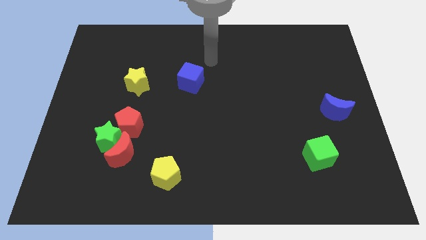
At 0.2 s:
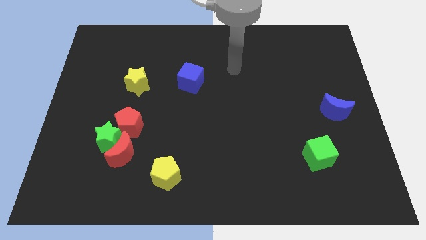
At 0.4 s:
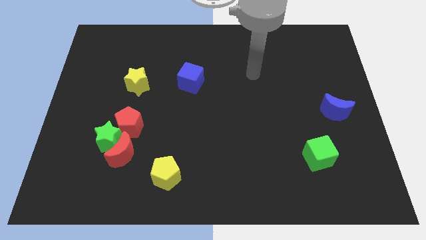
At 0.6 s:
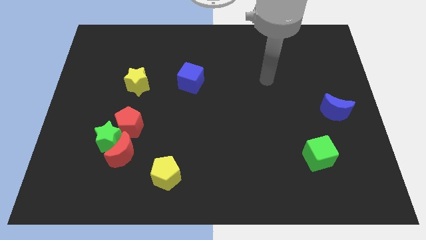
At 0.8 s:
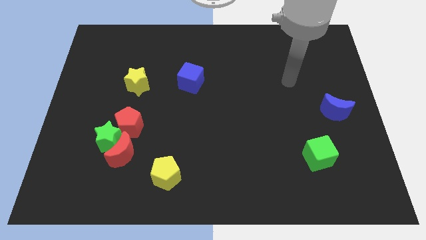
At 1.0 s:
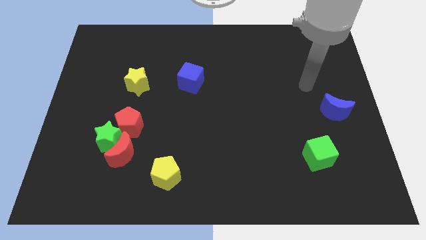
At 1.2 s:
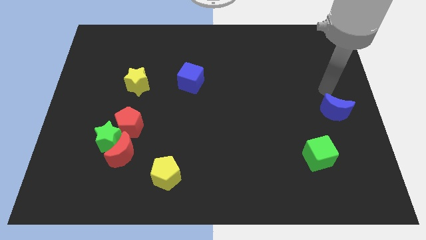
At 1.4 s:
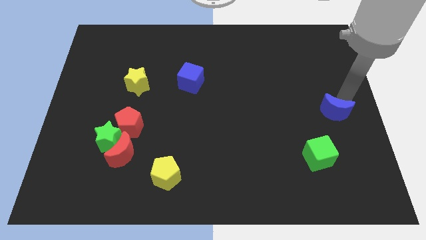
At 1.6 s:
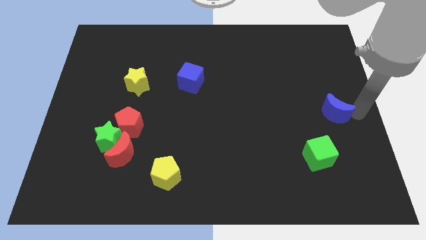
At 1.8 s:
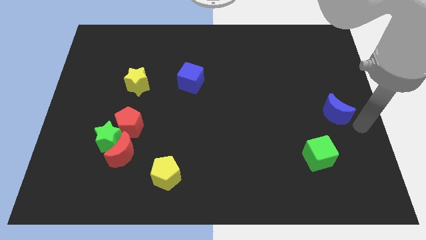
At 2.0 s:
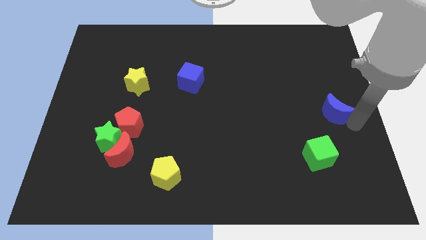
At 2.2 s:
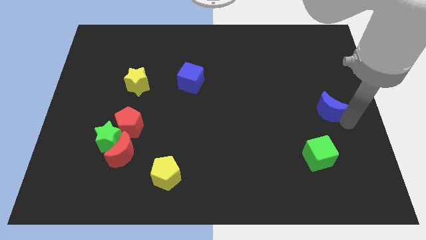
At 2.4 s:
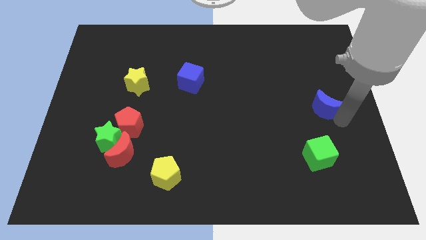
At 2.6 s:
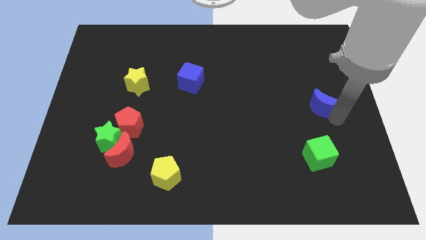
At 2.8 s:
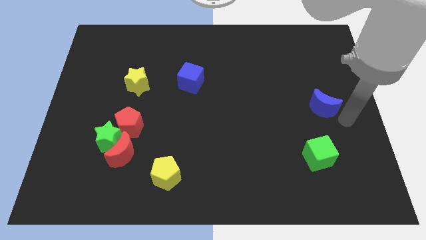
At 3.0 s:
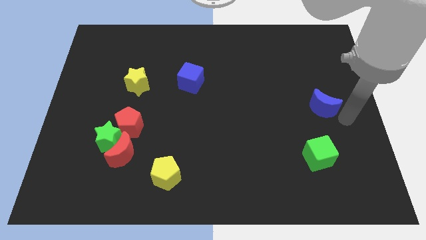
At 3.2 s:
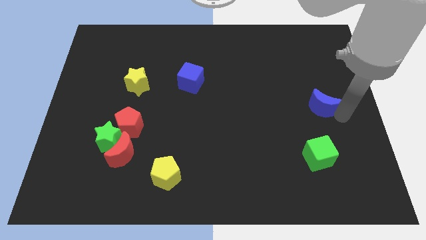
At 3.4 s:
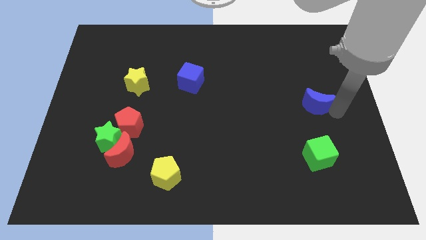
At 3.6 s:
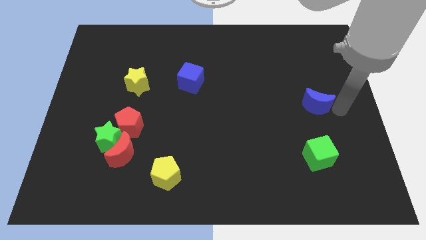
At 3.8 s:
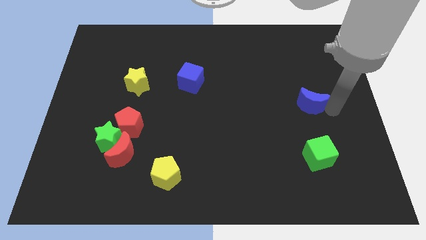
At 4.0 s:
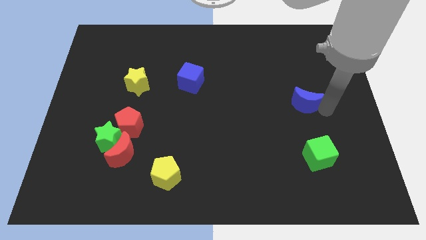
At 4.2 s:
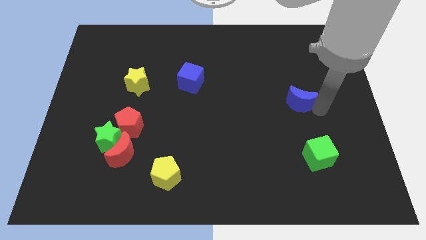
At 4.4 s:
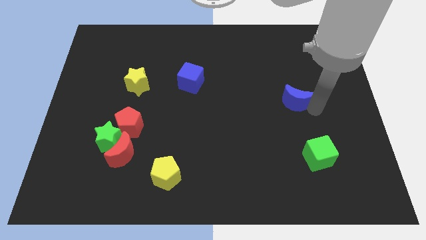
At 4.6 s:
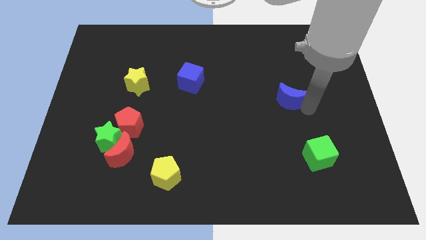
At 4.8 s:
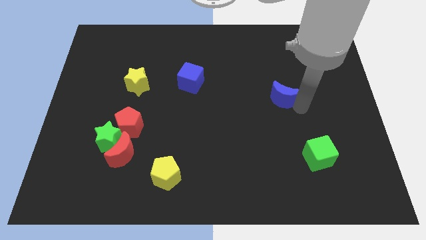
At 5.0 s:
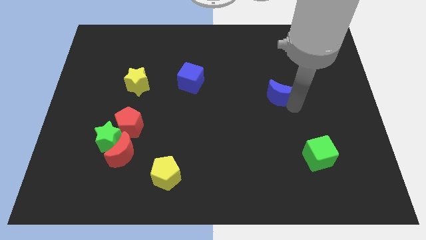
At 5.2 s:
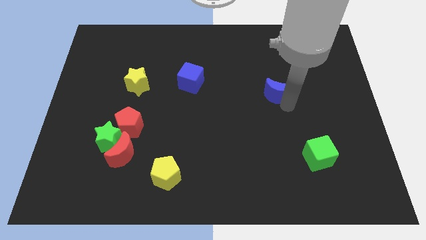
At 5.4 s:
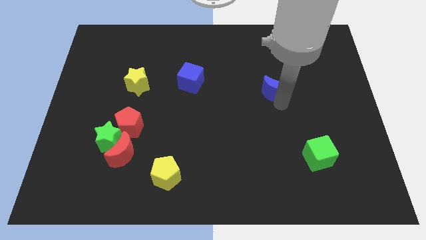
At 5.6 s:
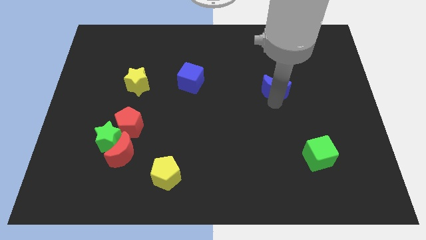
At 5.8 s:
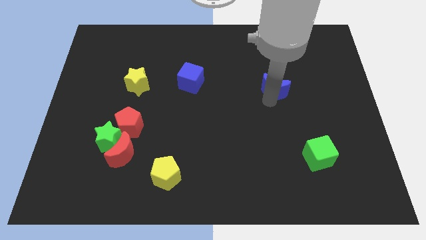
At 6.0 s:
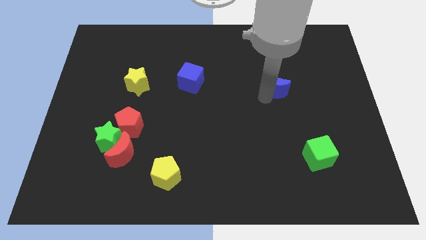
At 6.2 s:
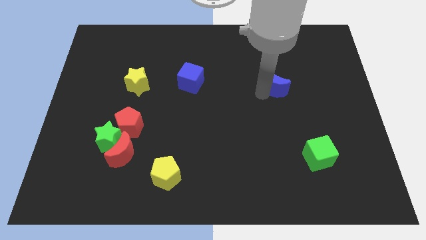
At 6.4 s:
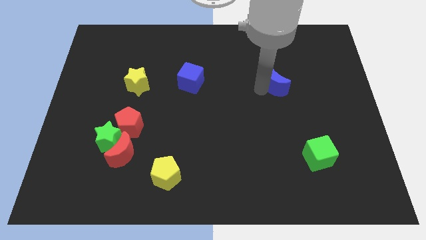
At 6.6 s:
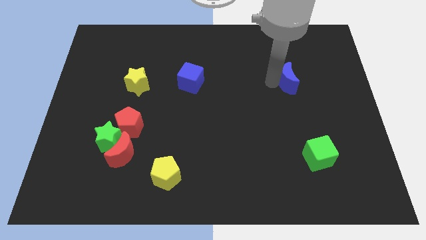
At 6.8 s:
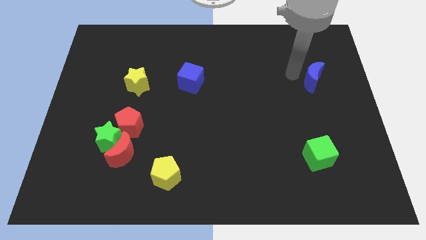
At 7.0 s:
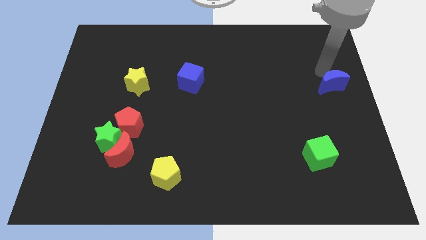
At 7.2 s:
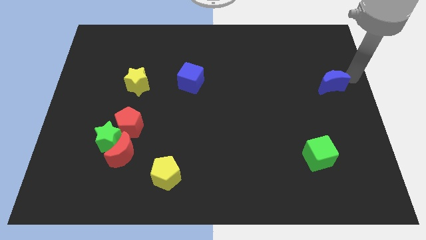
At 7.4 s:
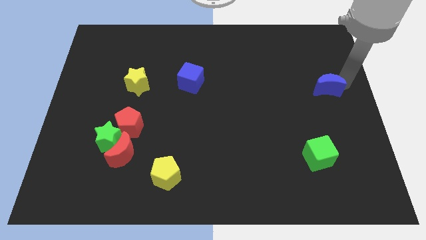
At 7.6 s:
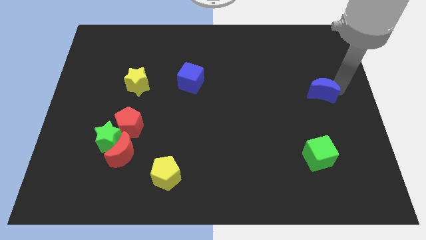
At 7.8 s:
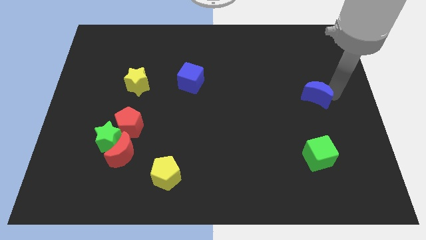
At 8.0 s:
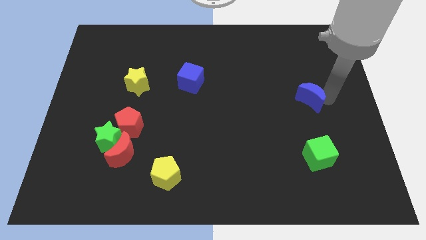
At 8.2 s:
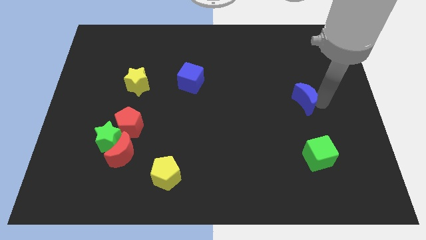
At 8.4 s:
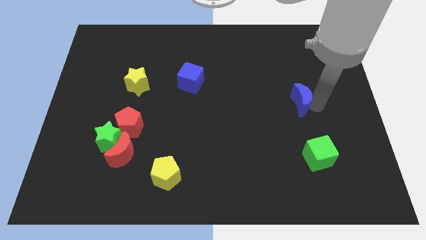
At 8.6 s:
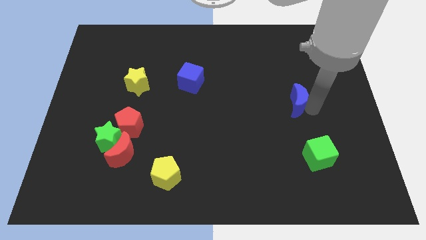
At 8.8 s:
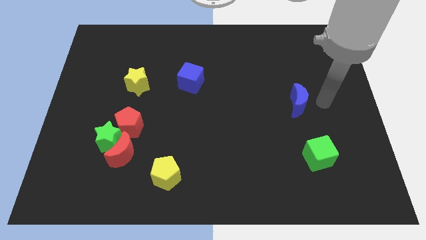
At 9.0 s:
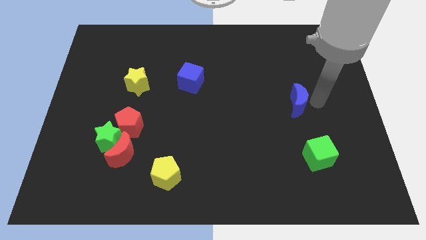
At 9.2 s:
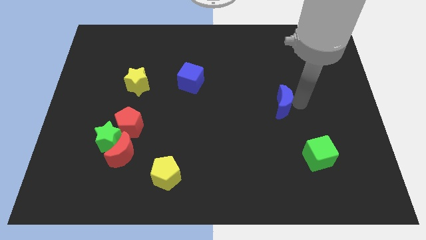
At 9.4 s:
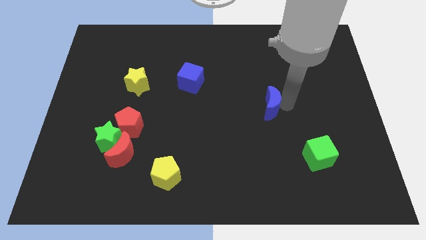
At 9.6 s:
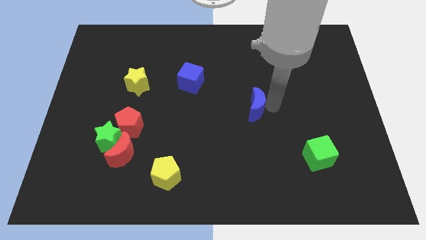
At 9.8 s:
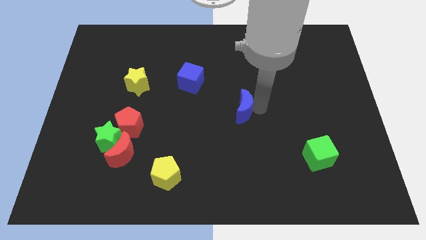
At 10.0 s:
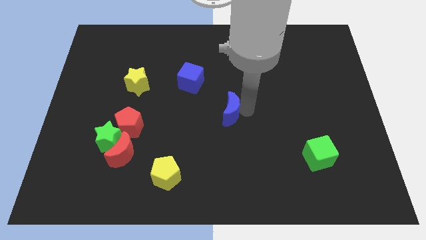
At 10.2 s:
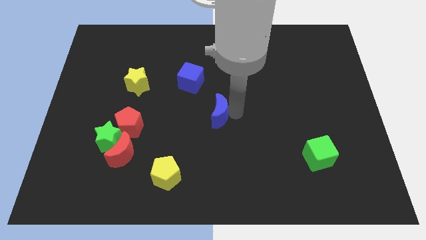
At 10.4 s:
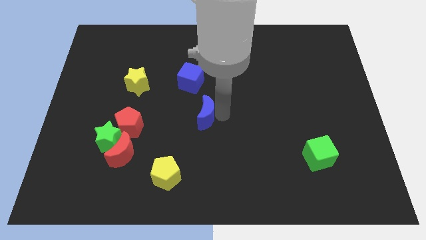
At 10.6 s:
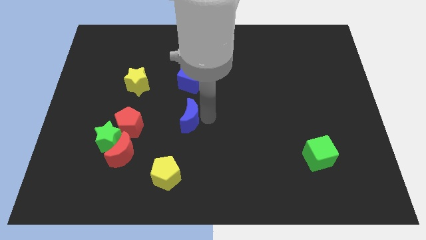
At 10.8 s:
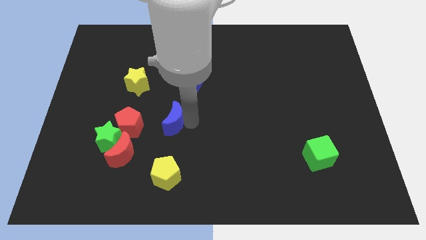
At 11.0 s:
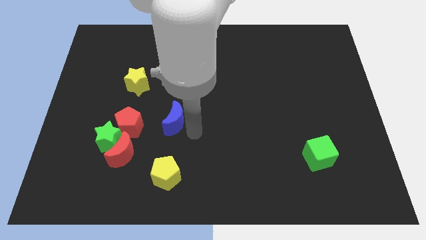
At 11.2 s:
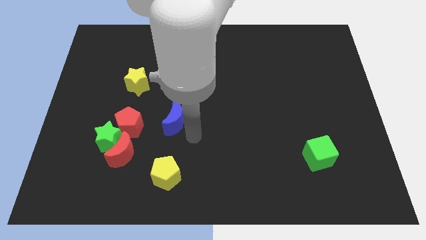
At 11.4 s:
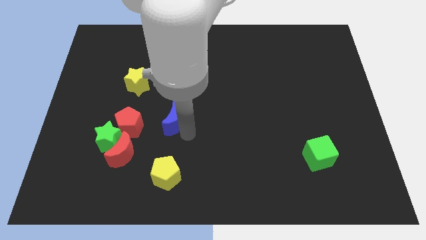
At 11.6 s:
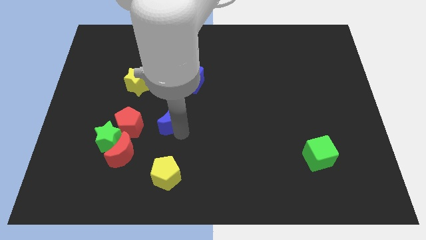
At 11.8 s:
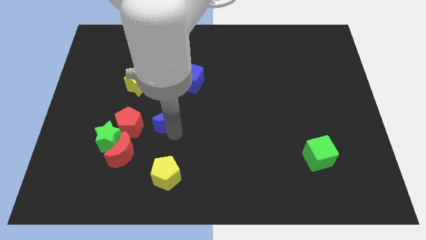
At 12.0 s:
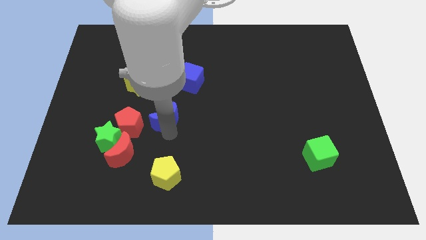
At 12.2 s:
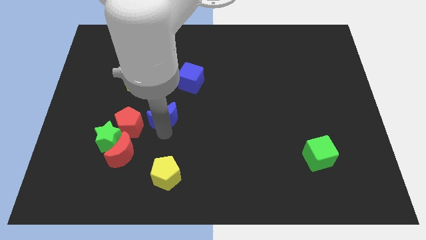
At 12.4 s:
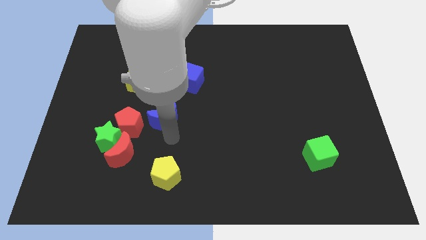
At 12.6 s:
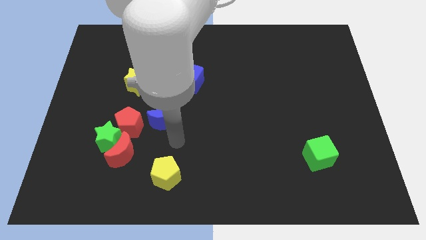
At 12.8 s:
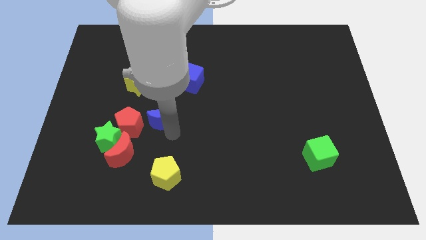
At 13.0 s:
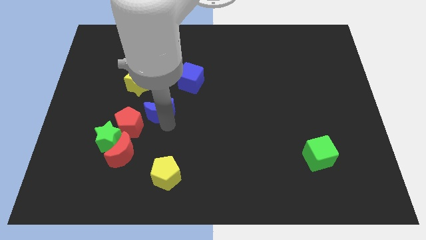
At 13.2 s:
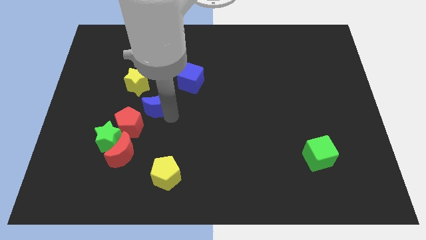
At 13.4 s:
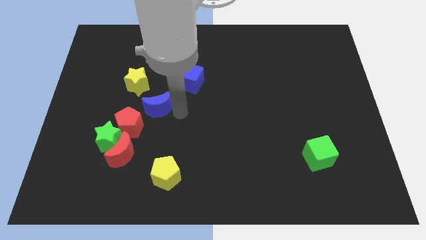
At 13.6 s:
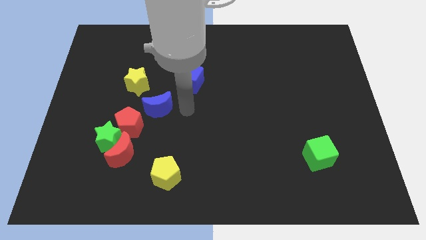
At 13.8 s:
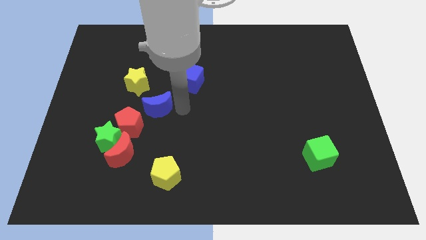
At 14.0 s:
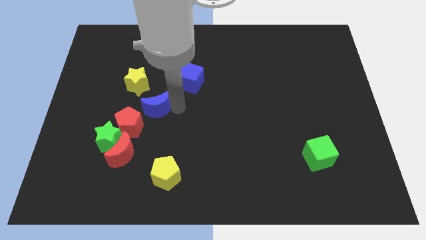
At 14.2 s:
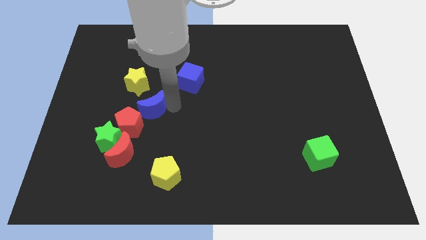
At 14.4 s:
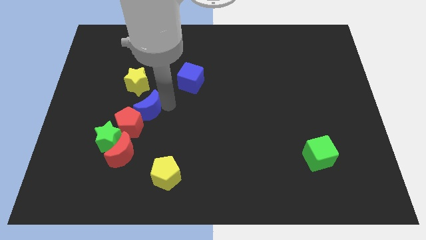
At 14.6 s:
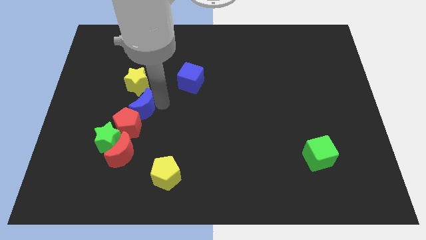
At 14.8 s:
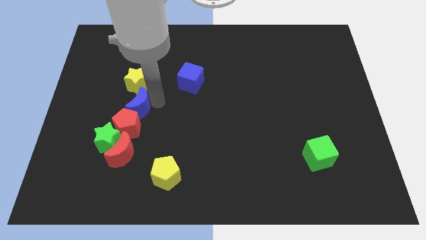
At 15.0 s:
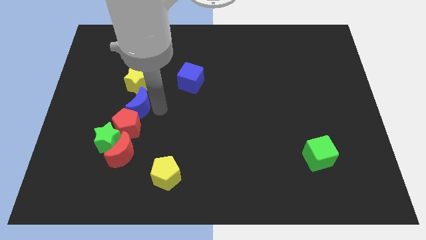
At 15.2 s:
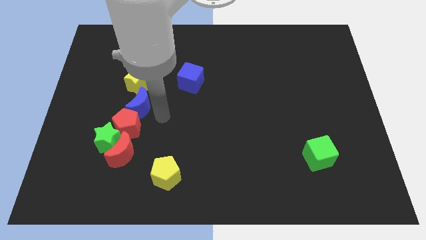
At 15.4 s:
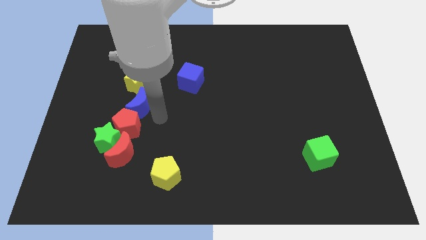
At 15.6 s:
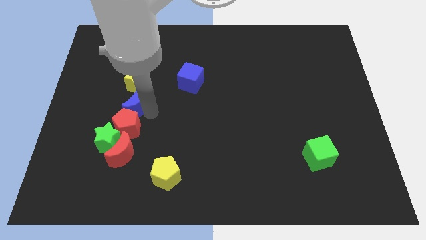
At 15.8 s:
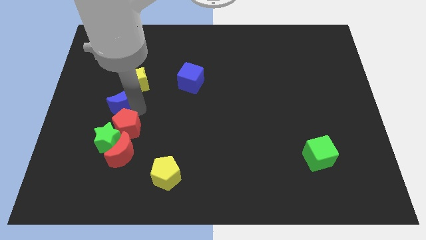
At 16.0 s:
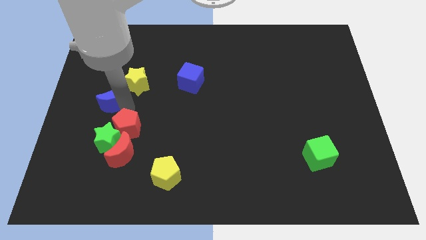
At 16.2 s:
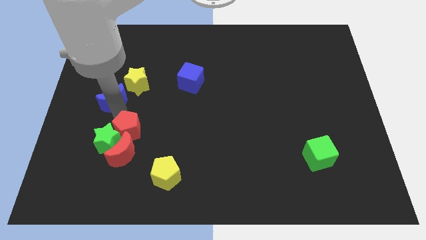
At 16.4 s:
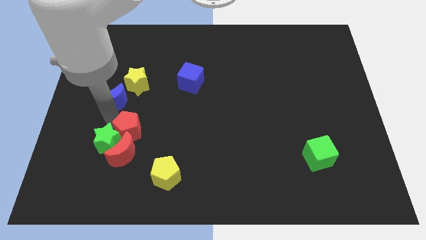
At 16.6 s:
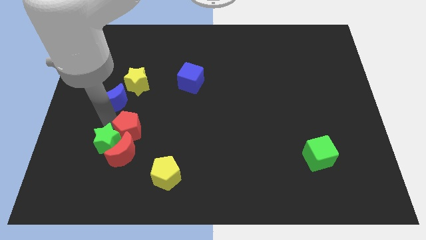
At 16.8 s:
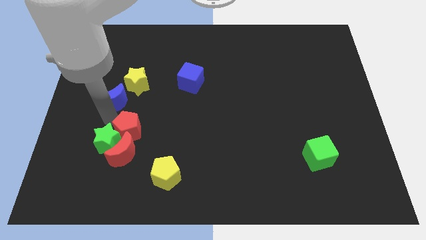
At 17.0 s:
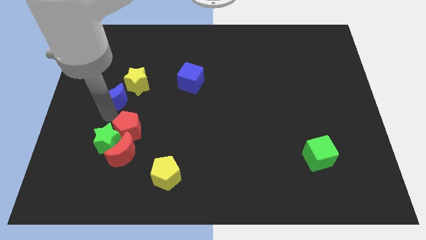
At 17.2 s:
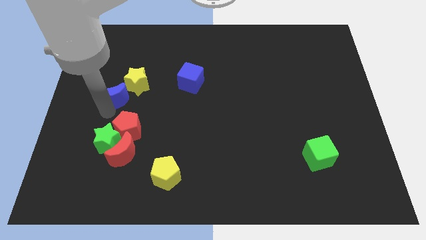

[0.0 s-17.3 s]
slide the blue moon to the left side of the yellow star
